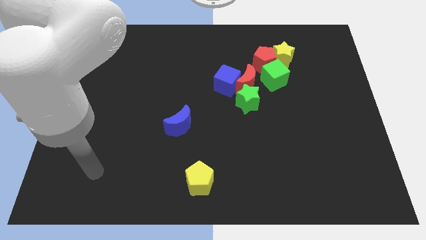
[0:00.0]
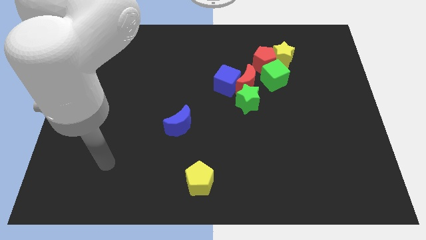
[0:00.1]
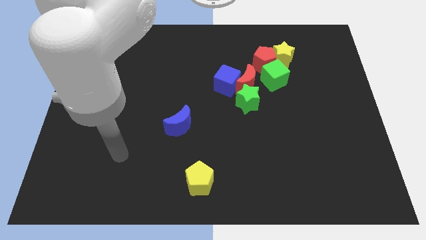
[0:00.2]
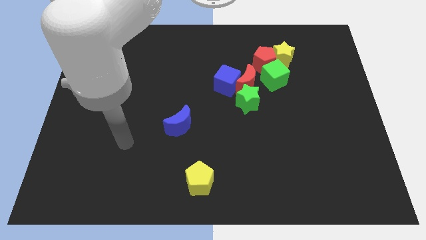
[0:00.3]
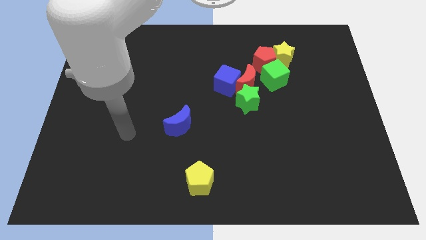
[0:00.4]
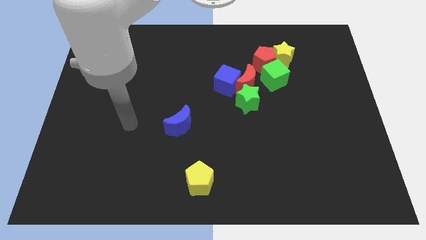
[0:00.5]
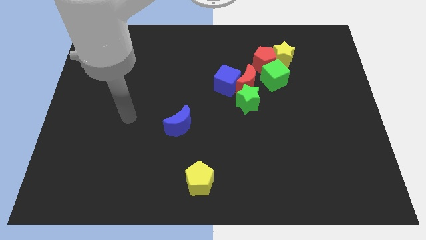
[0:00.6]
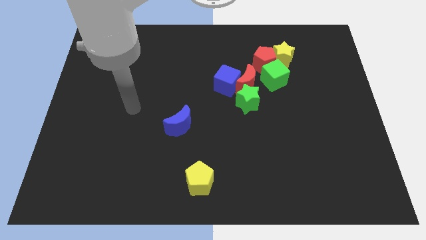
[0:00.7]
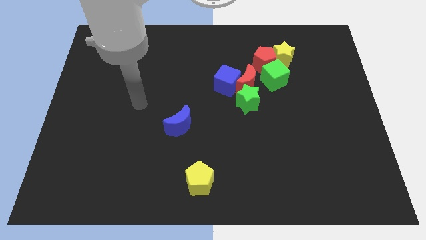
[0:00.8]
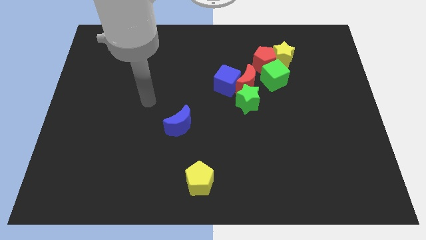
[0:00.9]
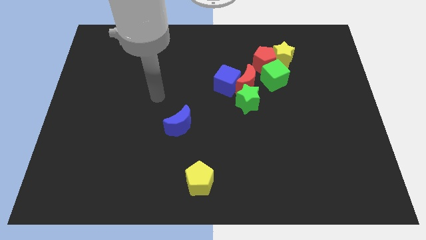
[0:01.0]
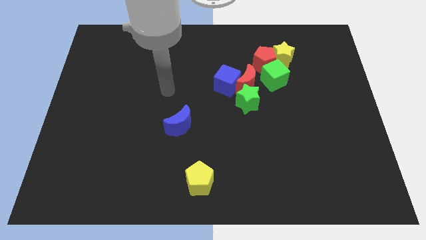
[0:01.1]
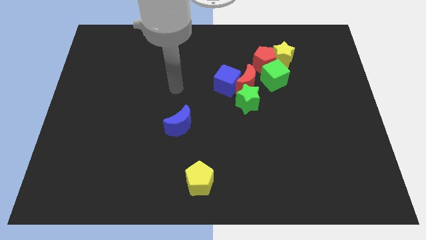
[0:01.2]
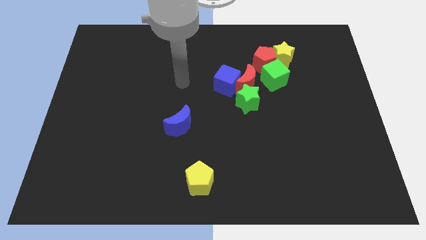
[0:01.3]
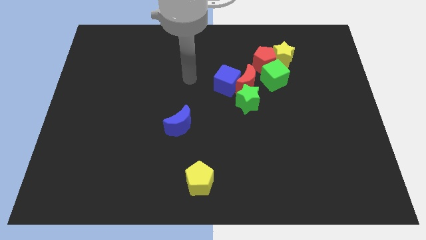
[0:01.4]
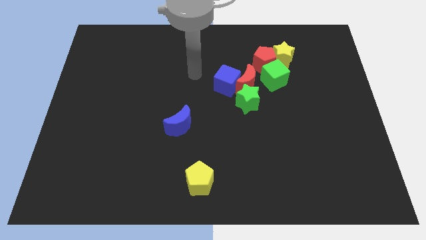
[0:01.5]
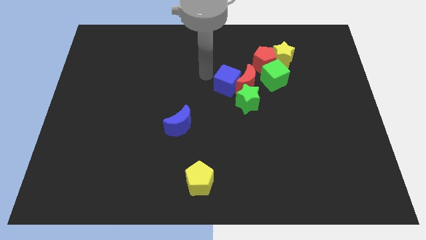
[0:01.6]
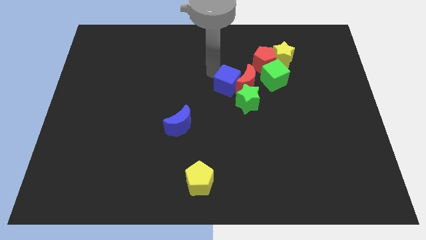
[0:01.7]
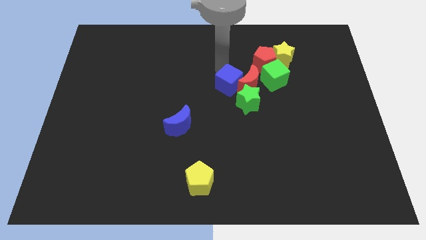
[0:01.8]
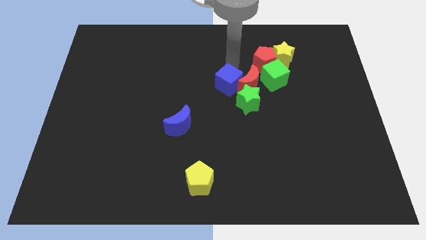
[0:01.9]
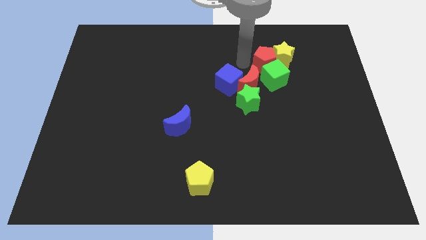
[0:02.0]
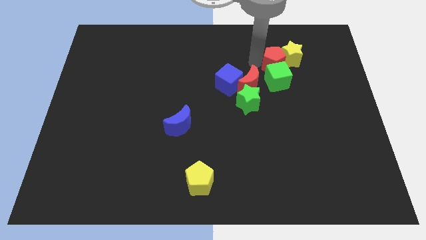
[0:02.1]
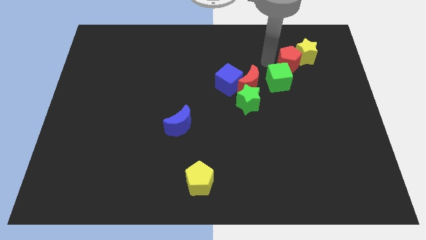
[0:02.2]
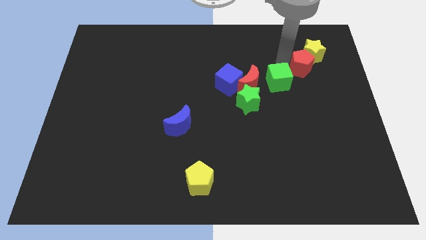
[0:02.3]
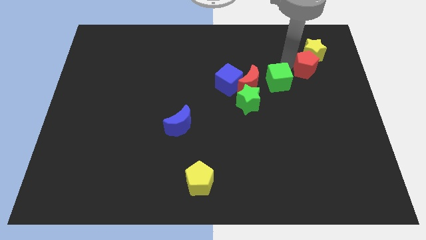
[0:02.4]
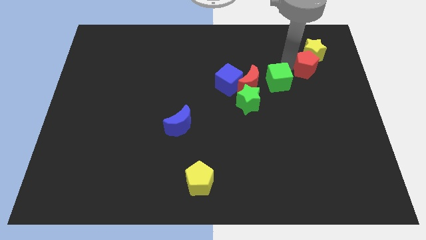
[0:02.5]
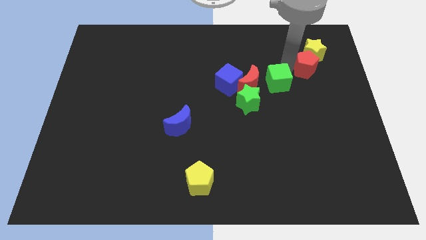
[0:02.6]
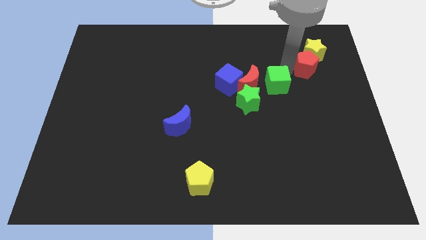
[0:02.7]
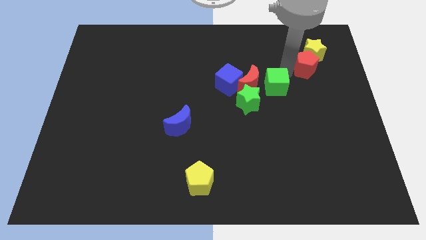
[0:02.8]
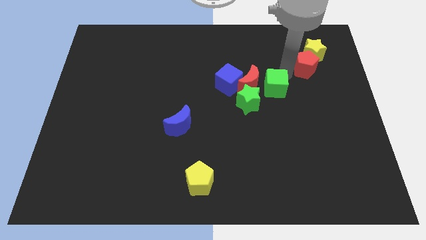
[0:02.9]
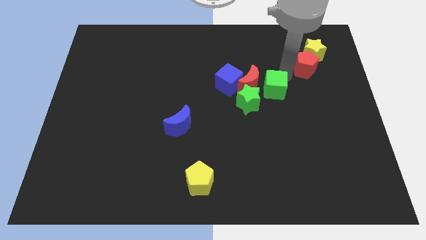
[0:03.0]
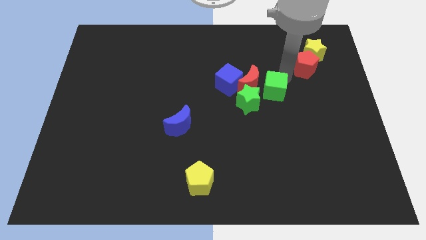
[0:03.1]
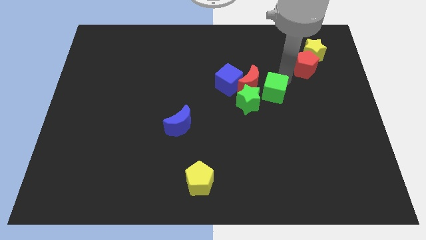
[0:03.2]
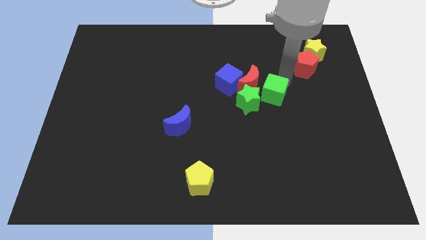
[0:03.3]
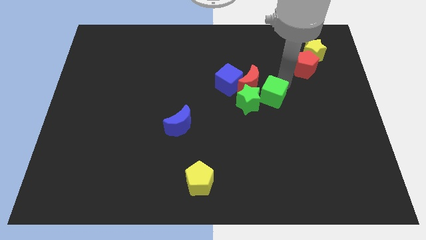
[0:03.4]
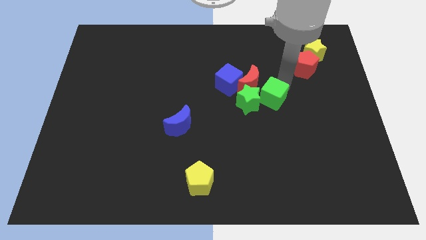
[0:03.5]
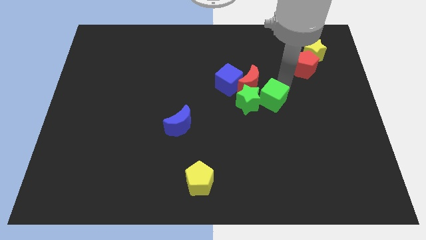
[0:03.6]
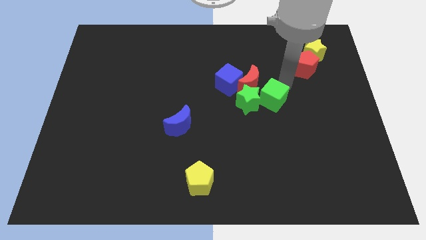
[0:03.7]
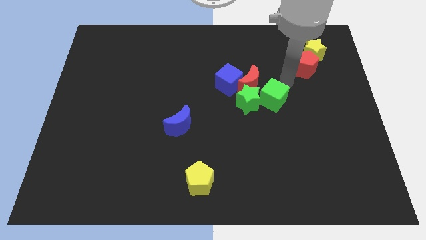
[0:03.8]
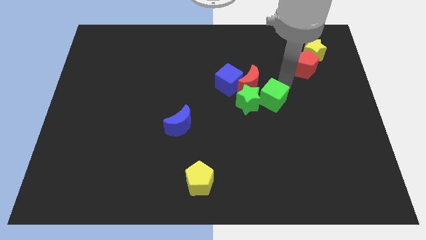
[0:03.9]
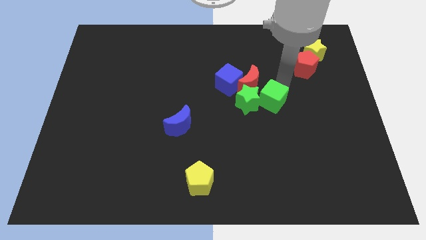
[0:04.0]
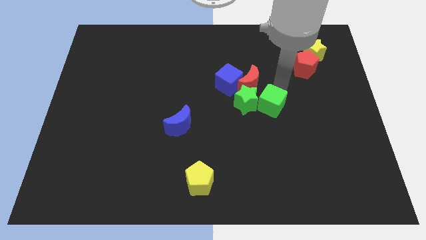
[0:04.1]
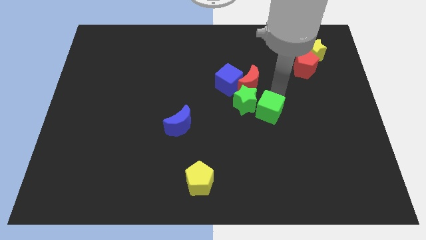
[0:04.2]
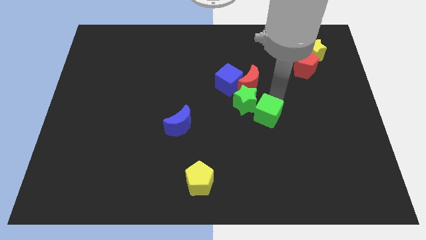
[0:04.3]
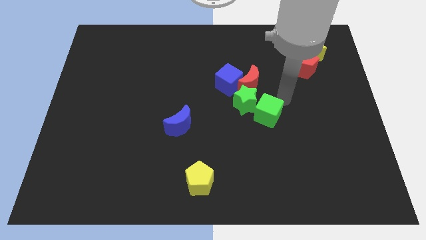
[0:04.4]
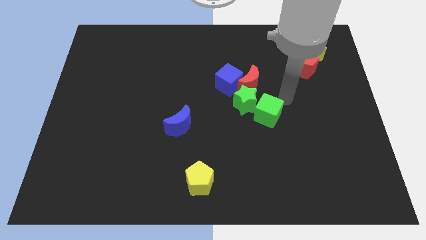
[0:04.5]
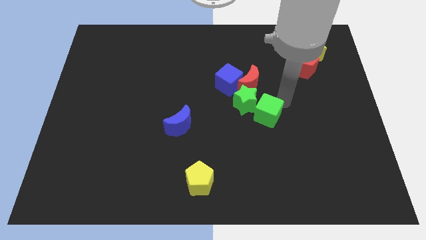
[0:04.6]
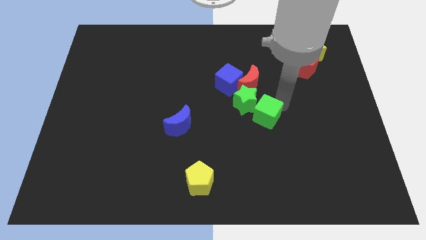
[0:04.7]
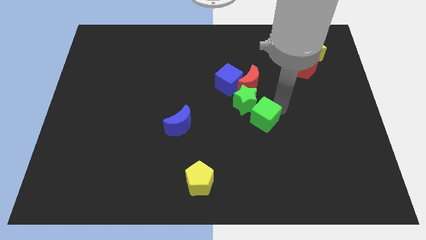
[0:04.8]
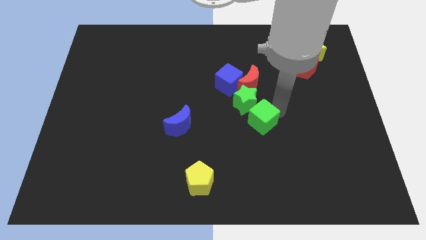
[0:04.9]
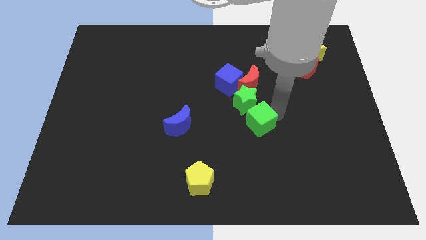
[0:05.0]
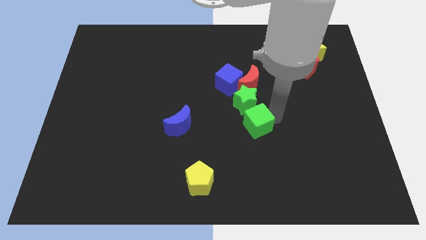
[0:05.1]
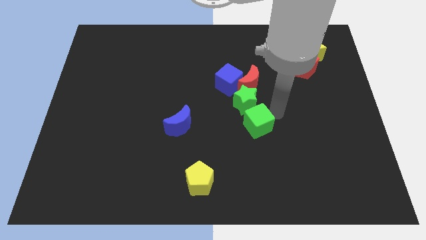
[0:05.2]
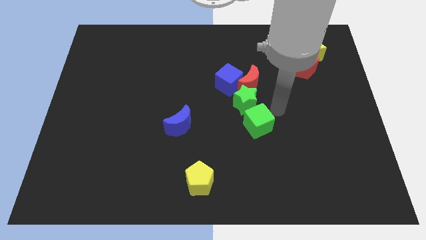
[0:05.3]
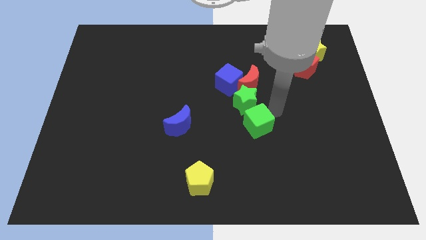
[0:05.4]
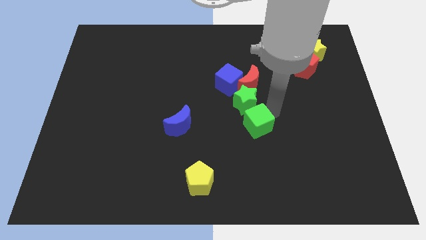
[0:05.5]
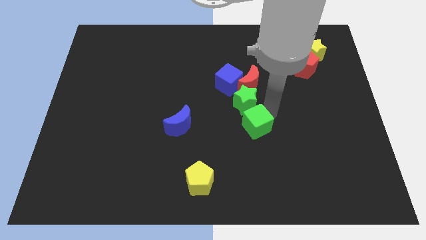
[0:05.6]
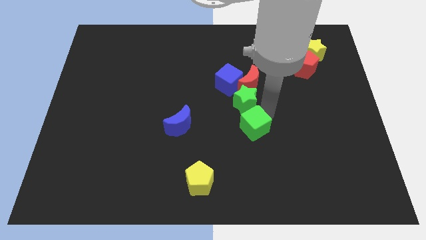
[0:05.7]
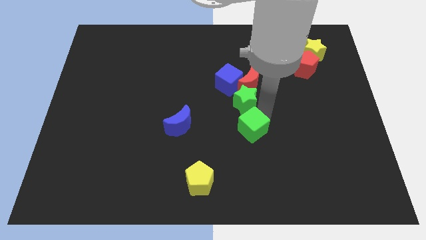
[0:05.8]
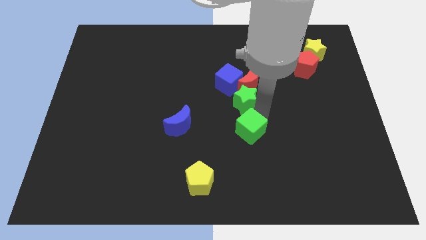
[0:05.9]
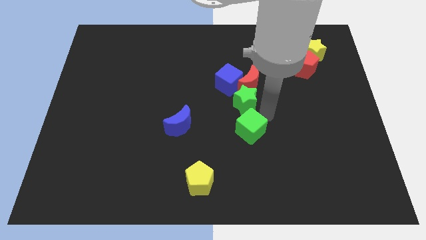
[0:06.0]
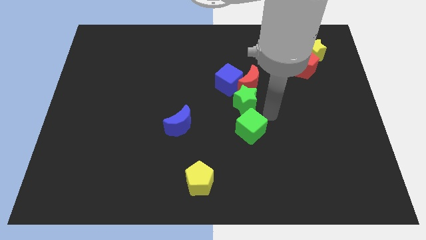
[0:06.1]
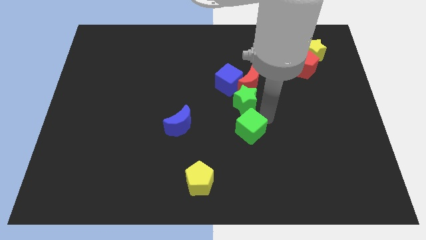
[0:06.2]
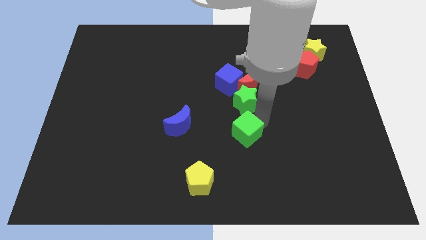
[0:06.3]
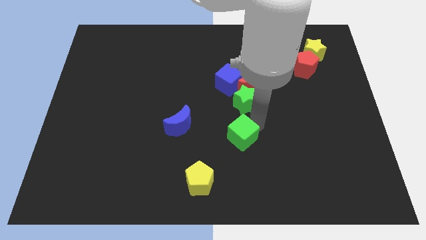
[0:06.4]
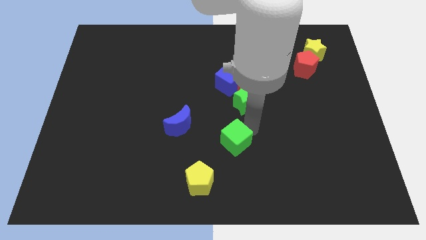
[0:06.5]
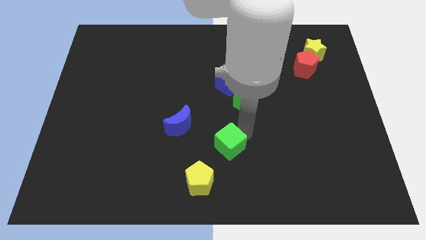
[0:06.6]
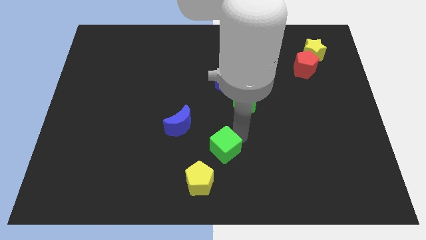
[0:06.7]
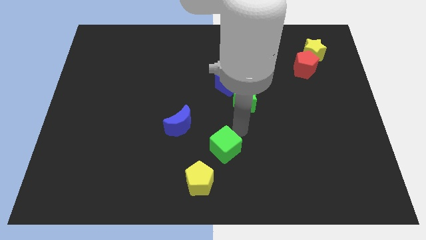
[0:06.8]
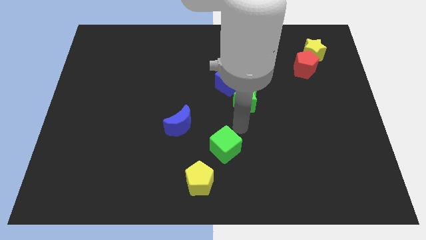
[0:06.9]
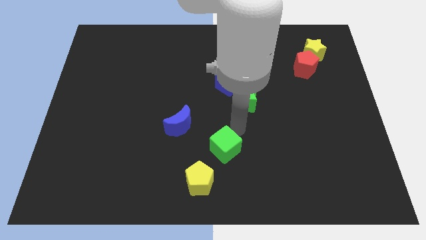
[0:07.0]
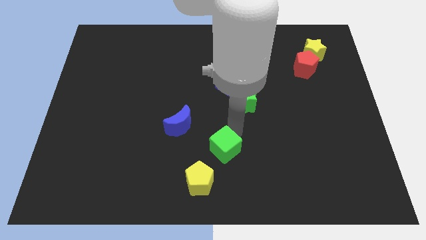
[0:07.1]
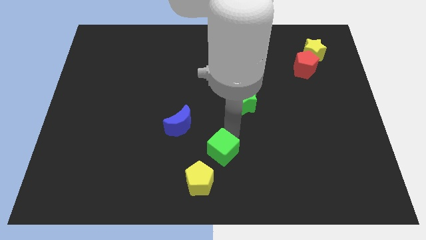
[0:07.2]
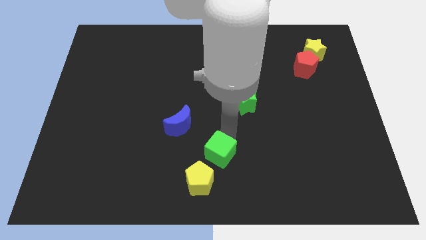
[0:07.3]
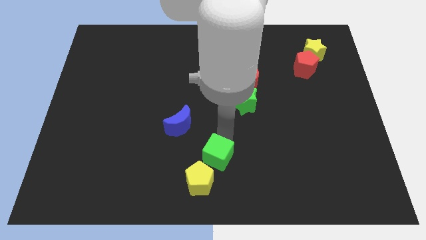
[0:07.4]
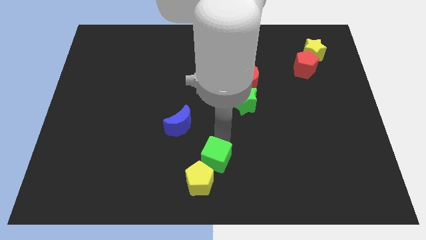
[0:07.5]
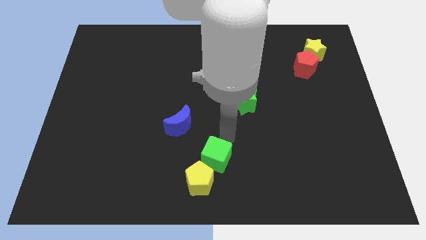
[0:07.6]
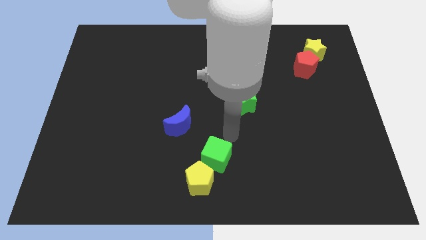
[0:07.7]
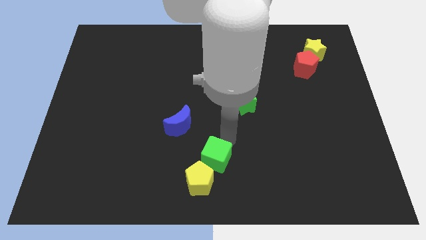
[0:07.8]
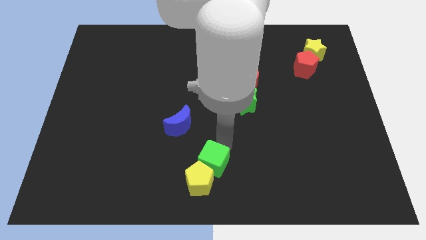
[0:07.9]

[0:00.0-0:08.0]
slide the green cube to the yellow pentagon
